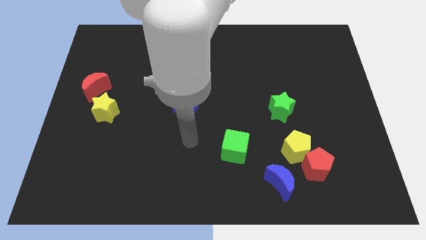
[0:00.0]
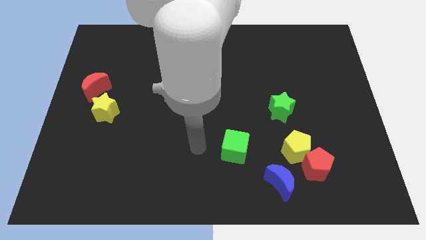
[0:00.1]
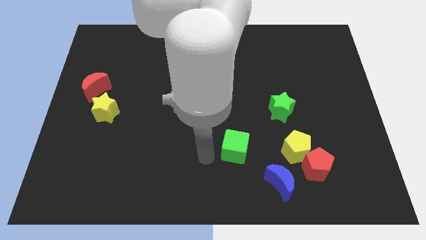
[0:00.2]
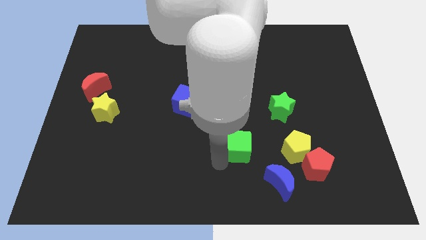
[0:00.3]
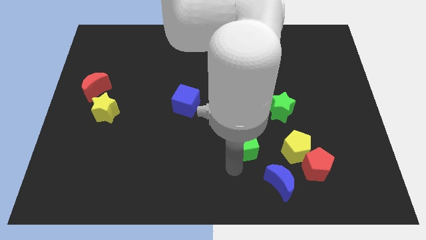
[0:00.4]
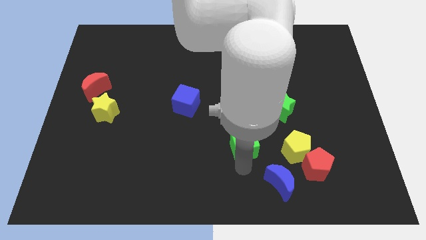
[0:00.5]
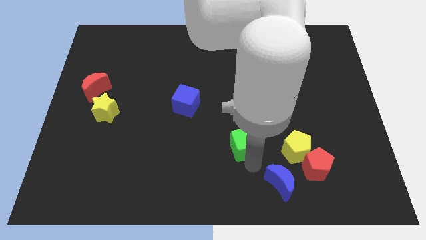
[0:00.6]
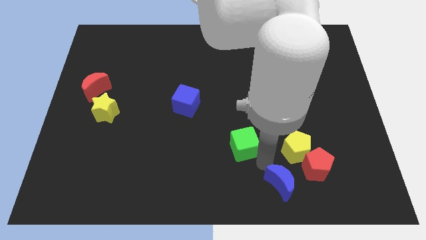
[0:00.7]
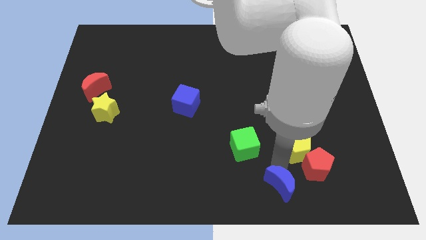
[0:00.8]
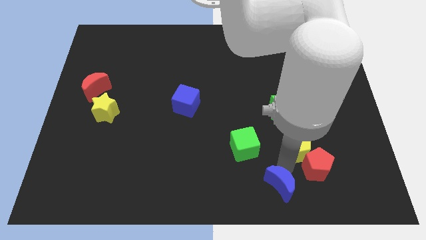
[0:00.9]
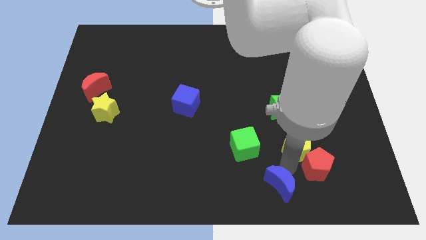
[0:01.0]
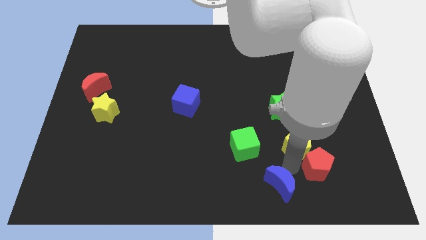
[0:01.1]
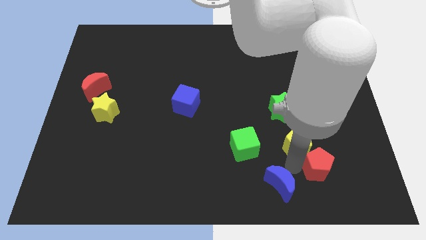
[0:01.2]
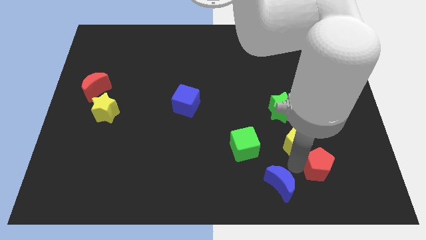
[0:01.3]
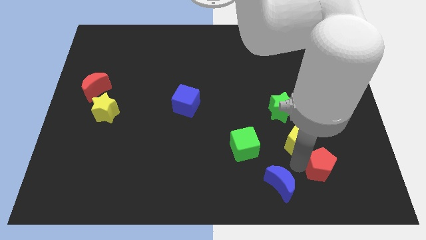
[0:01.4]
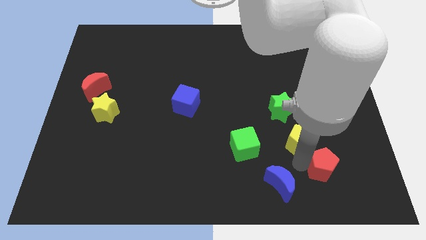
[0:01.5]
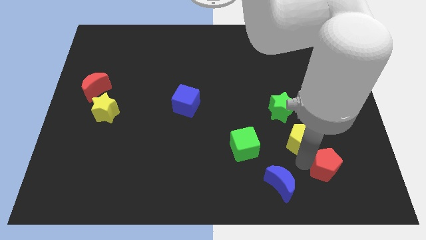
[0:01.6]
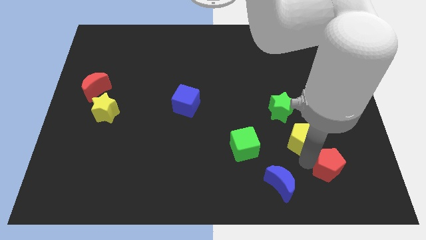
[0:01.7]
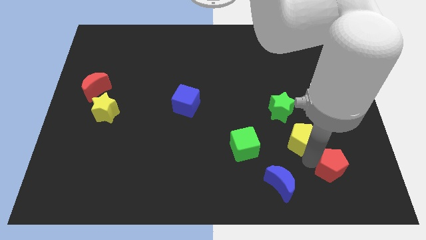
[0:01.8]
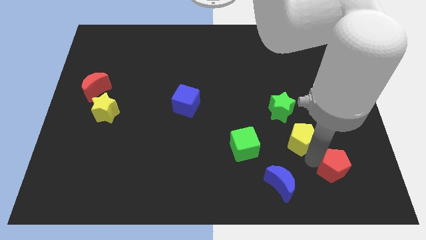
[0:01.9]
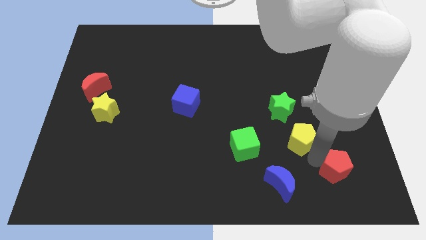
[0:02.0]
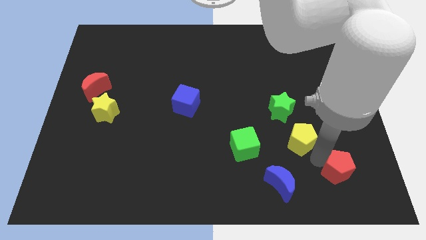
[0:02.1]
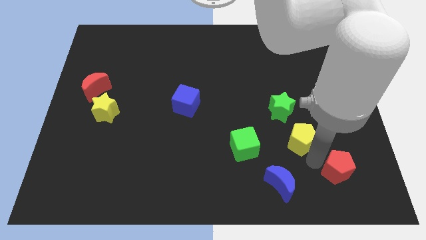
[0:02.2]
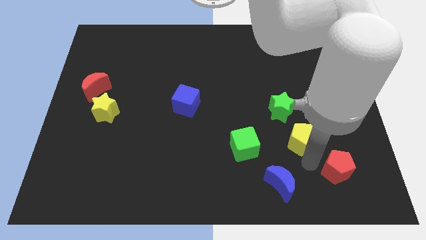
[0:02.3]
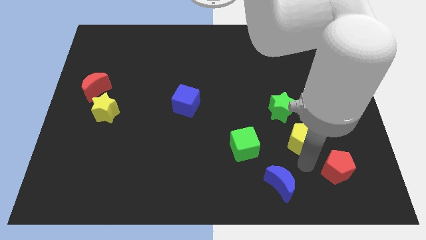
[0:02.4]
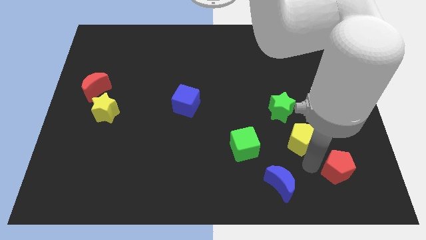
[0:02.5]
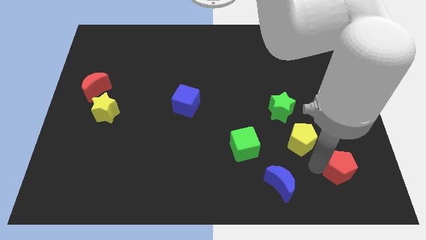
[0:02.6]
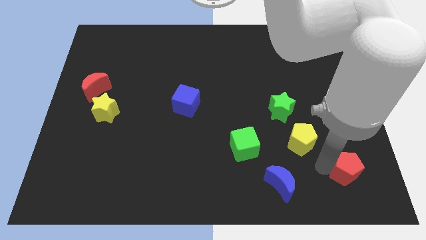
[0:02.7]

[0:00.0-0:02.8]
separate the red pentagon from the yellow pentagon and blue moon

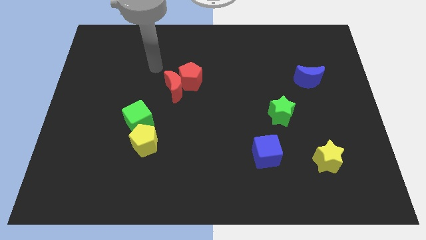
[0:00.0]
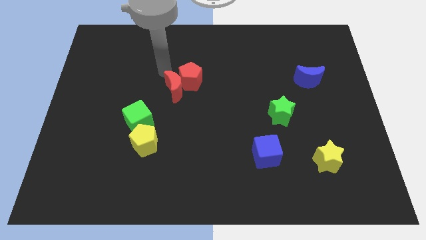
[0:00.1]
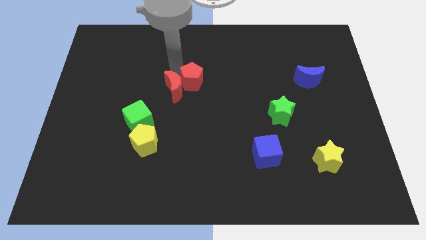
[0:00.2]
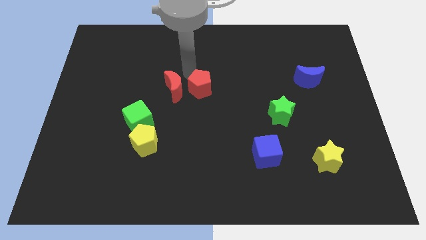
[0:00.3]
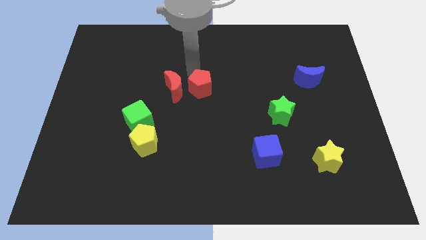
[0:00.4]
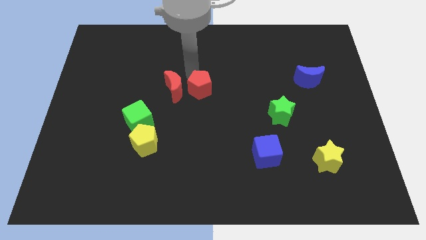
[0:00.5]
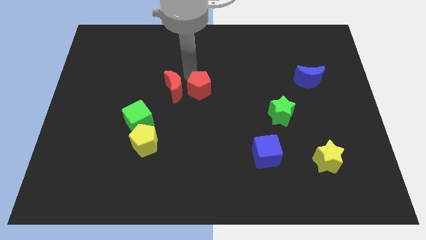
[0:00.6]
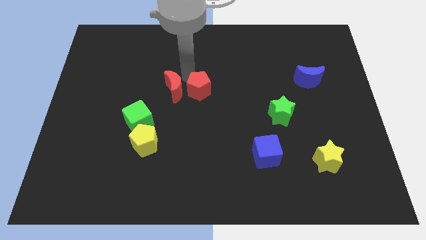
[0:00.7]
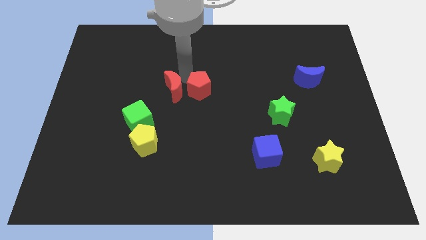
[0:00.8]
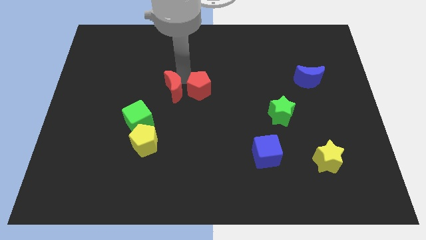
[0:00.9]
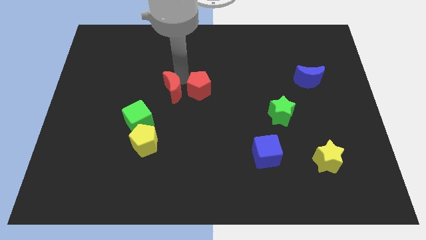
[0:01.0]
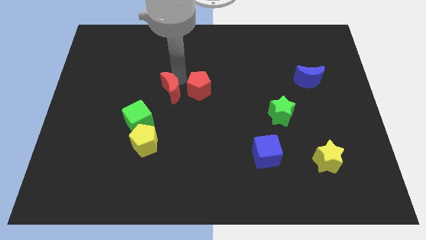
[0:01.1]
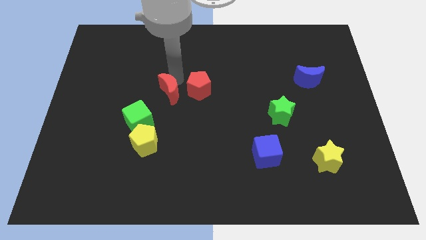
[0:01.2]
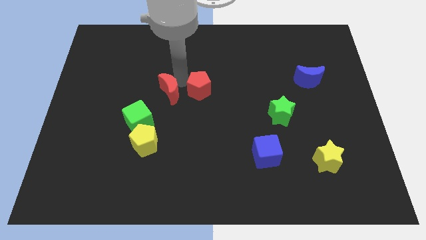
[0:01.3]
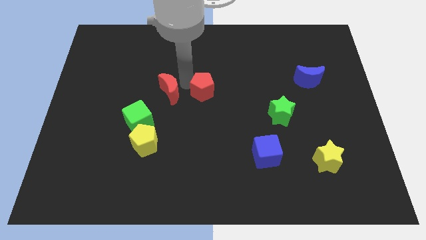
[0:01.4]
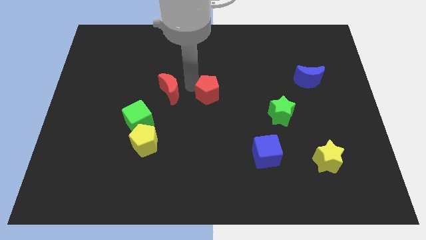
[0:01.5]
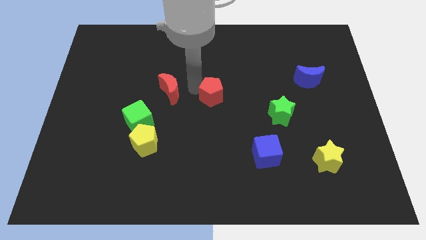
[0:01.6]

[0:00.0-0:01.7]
move the red moon away from the red pentagon

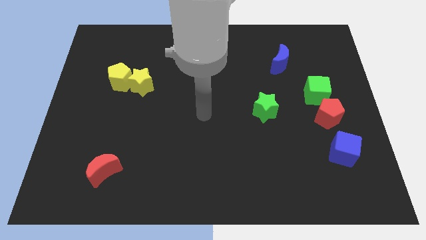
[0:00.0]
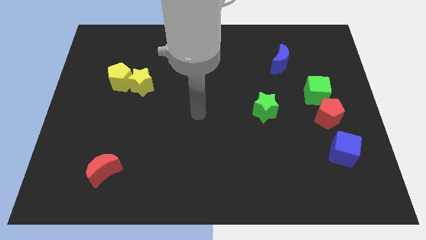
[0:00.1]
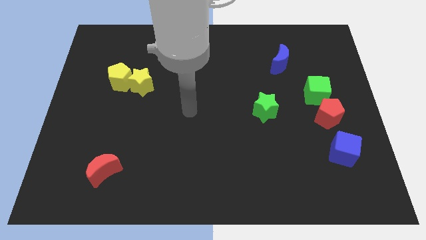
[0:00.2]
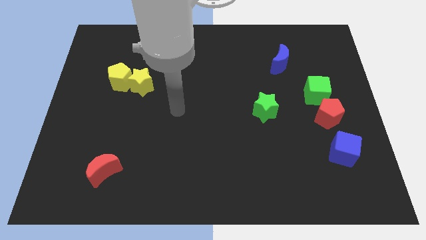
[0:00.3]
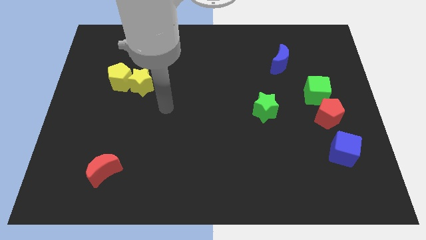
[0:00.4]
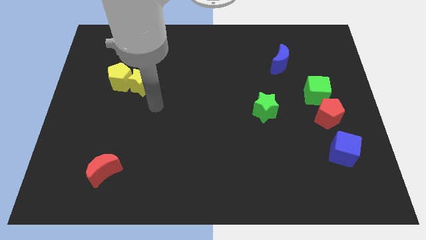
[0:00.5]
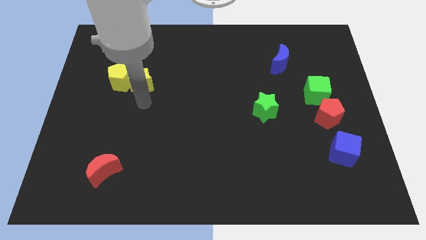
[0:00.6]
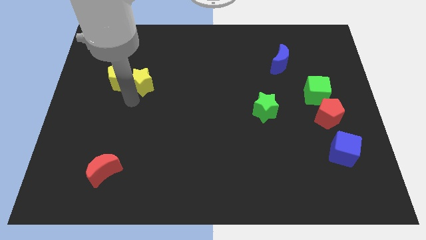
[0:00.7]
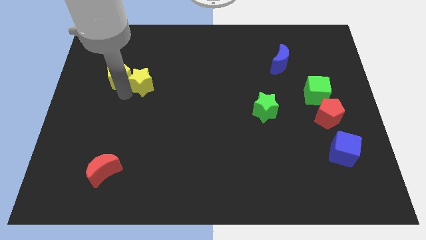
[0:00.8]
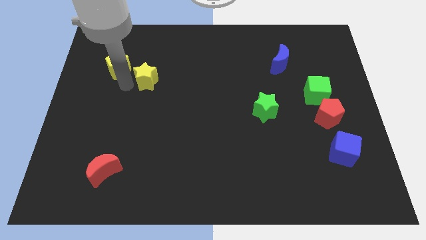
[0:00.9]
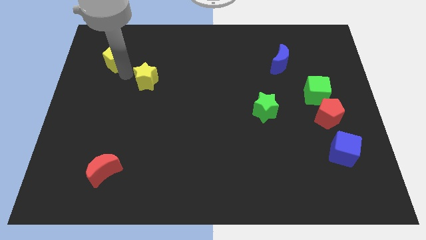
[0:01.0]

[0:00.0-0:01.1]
move the yellow star away from the yellow pentagon

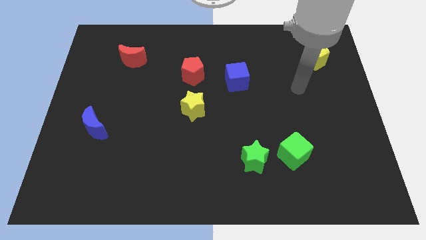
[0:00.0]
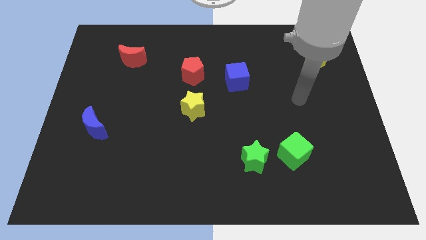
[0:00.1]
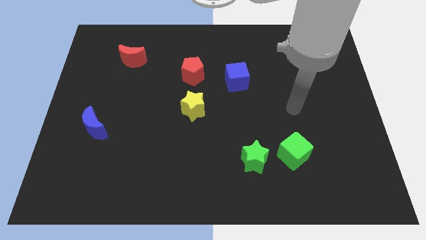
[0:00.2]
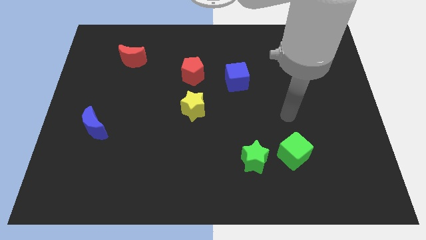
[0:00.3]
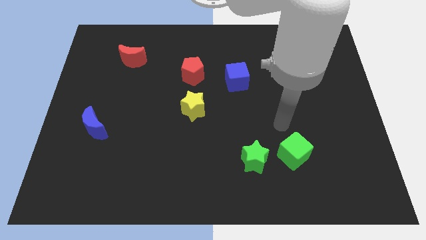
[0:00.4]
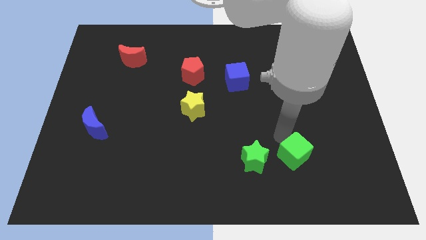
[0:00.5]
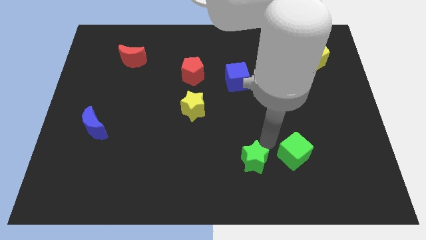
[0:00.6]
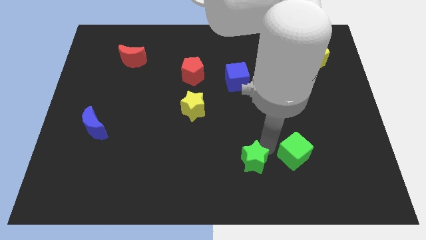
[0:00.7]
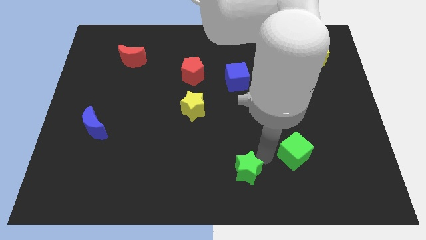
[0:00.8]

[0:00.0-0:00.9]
move the green cube away from the green star

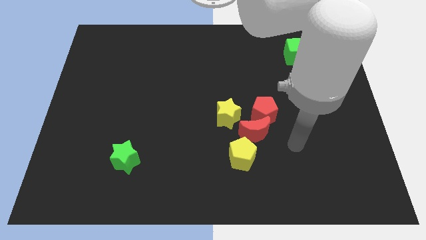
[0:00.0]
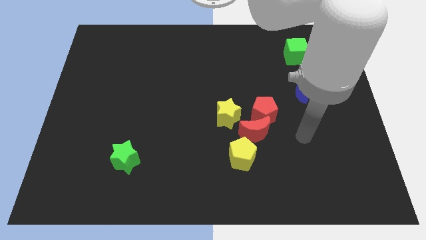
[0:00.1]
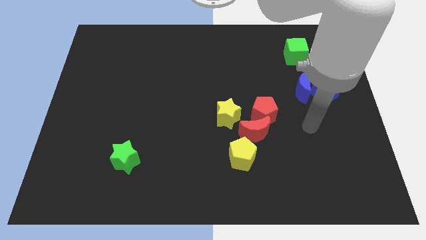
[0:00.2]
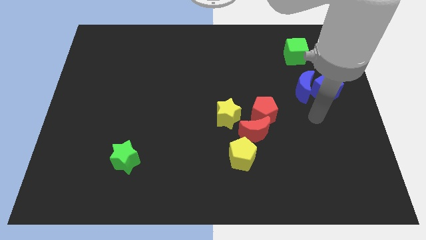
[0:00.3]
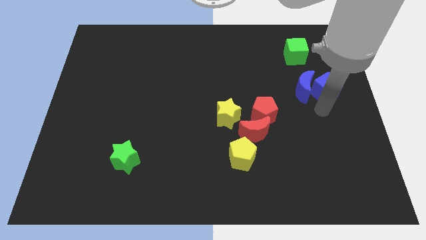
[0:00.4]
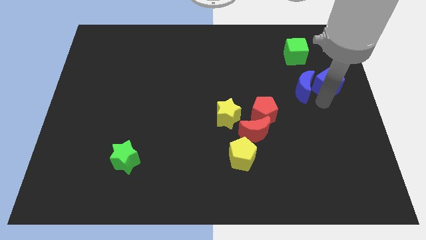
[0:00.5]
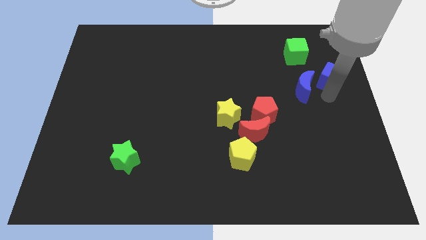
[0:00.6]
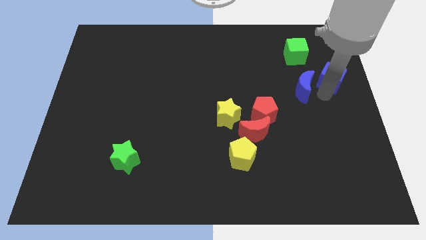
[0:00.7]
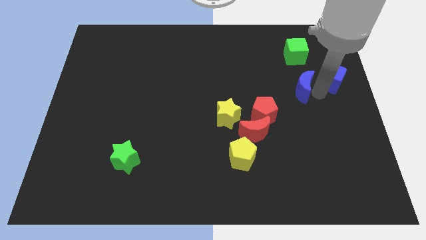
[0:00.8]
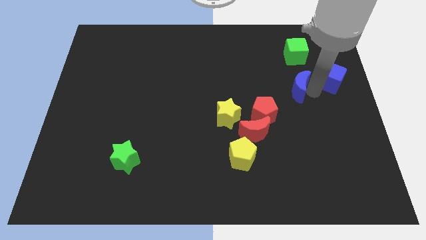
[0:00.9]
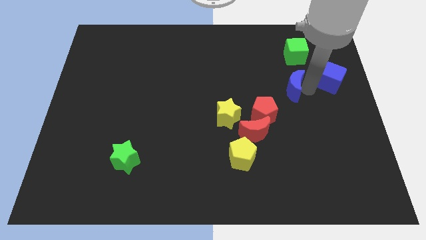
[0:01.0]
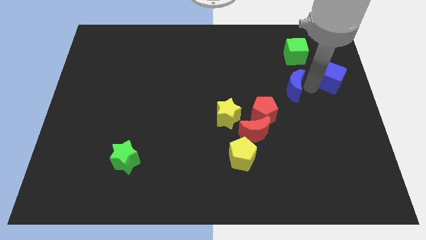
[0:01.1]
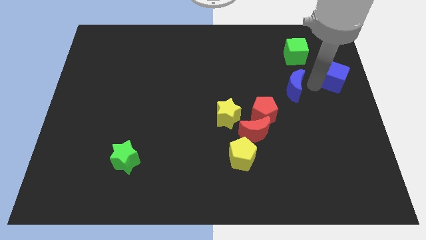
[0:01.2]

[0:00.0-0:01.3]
separate the blue moon from the blue cube

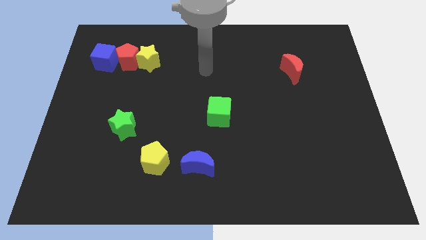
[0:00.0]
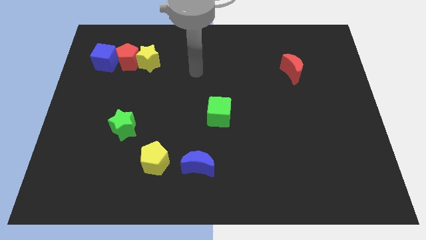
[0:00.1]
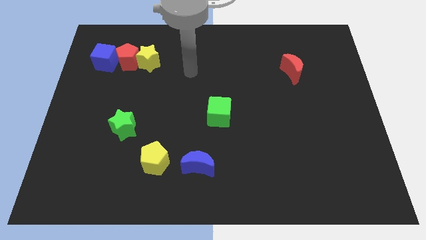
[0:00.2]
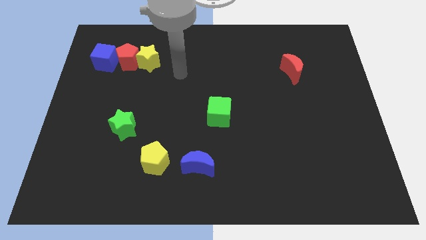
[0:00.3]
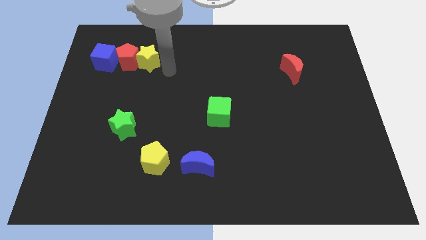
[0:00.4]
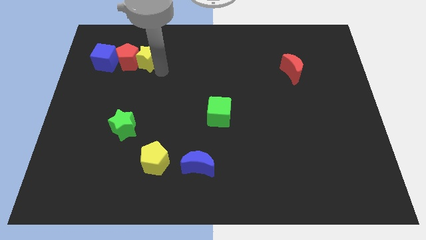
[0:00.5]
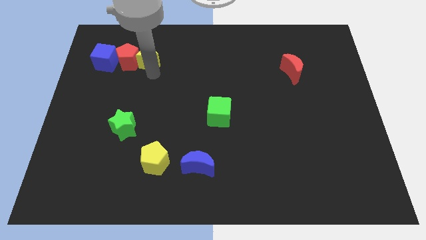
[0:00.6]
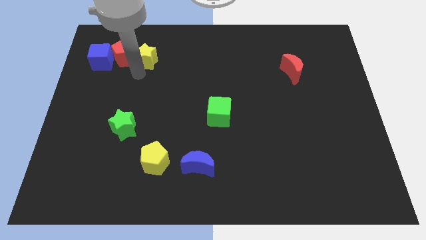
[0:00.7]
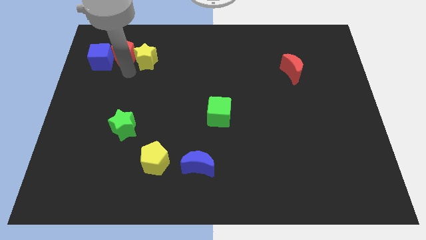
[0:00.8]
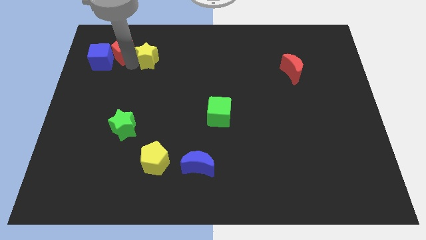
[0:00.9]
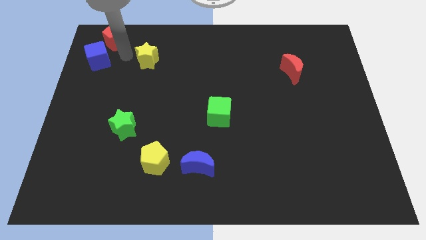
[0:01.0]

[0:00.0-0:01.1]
separate the yellow star from the red pentagon

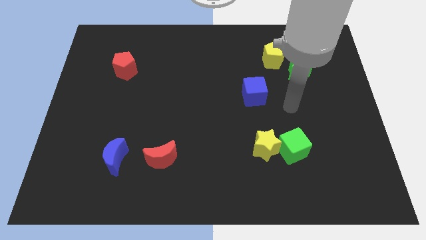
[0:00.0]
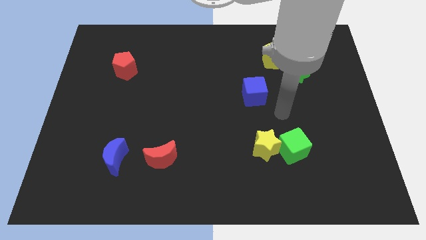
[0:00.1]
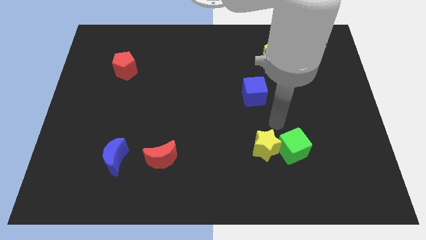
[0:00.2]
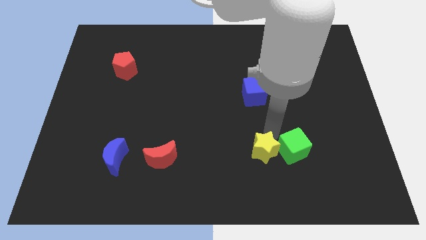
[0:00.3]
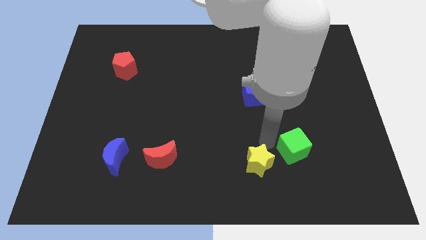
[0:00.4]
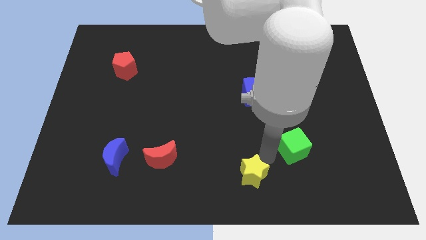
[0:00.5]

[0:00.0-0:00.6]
separate the green cube from the yellow star
